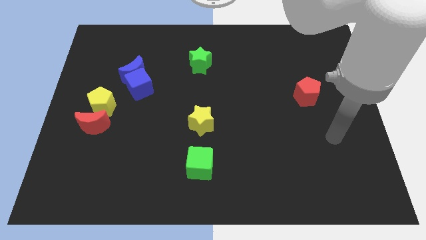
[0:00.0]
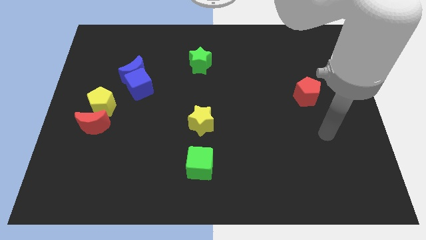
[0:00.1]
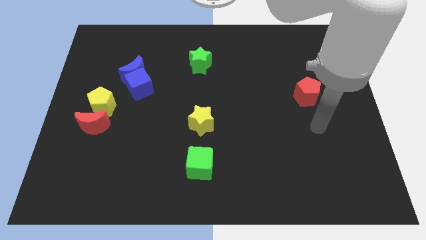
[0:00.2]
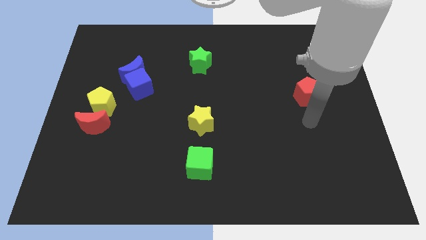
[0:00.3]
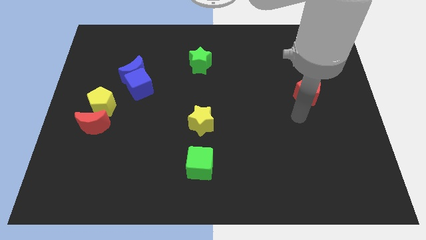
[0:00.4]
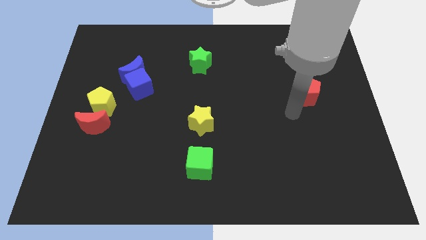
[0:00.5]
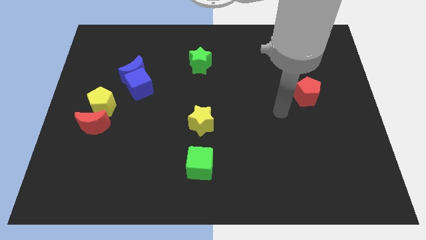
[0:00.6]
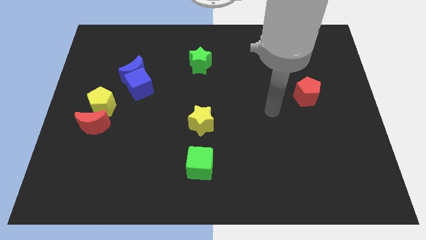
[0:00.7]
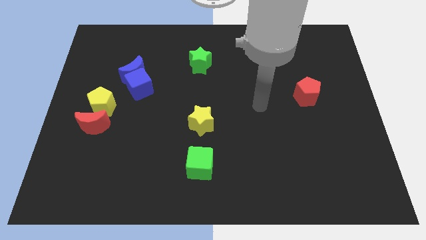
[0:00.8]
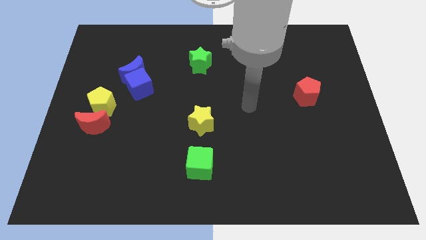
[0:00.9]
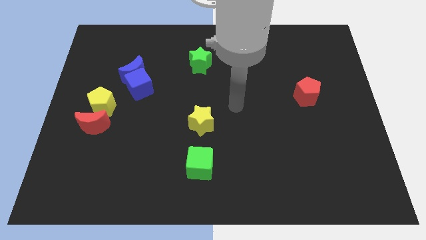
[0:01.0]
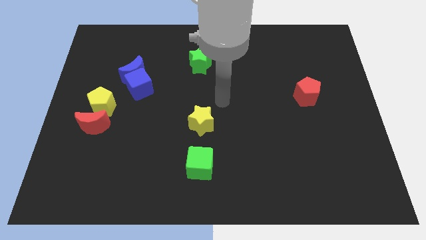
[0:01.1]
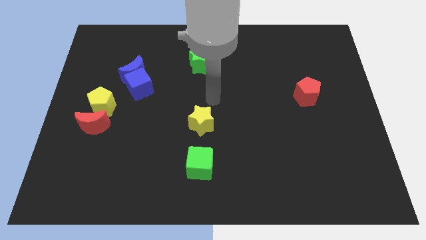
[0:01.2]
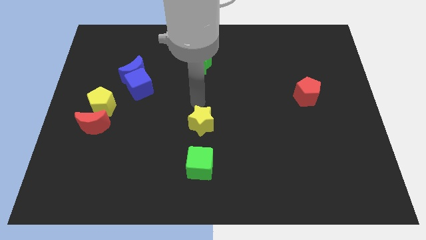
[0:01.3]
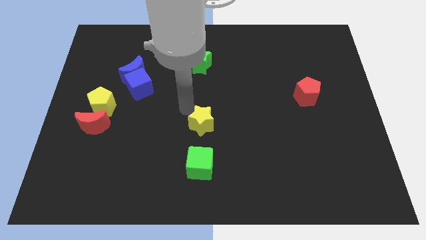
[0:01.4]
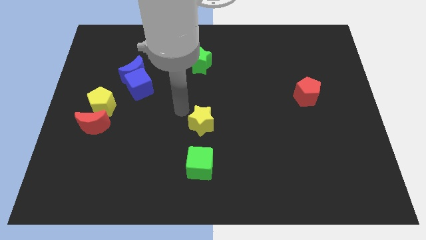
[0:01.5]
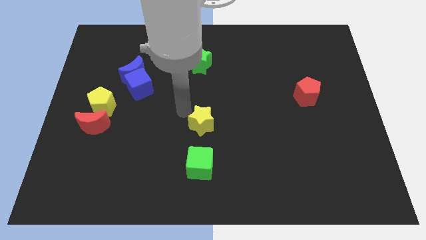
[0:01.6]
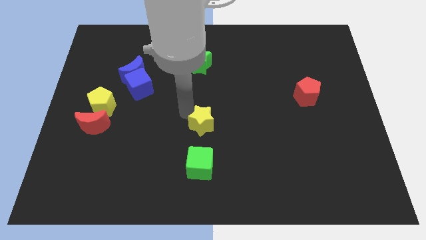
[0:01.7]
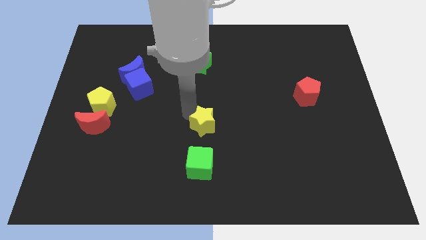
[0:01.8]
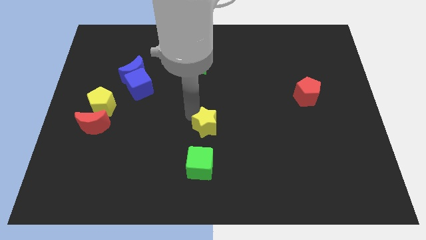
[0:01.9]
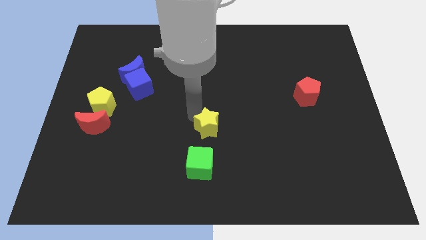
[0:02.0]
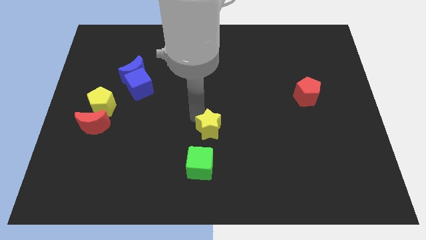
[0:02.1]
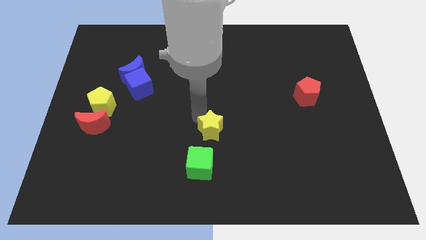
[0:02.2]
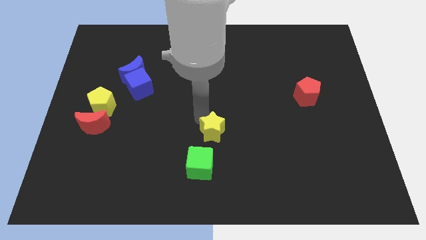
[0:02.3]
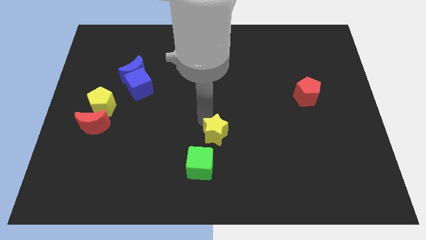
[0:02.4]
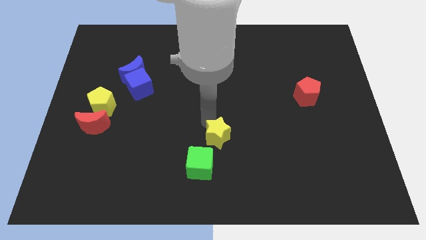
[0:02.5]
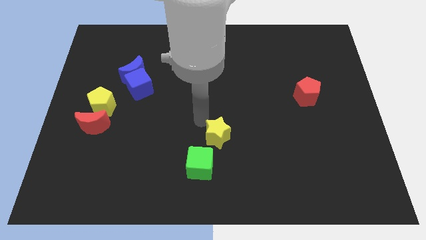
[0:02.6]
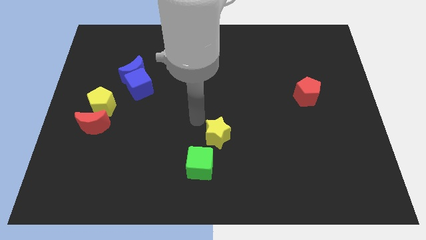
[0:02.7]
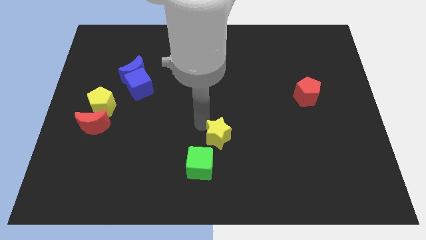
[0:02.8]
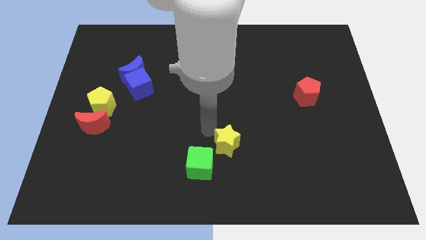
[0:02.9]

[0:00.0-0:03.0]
slide the yellow star down and then to the right a little

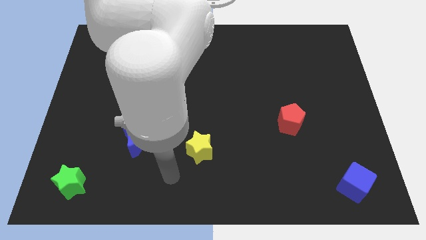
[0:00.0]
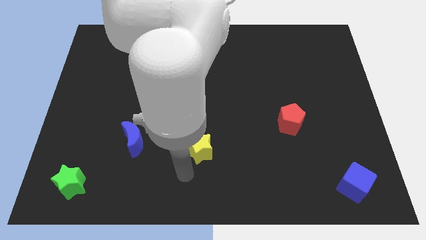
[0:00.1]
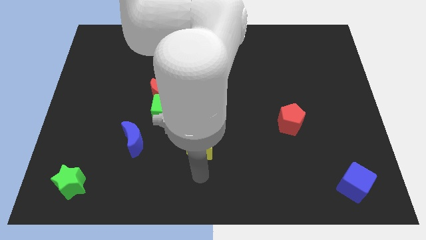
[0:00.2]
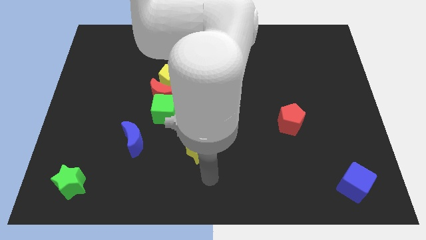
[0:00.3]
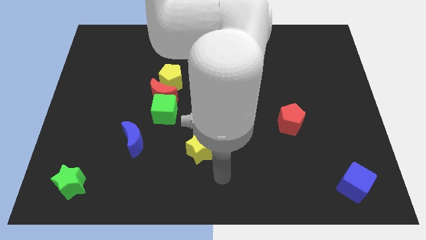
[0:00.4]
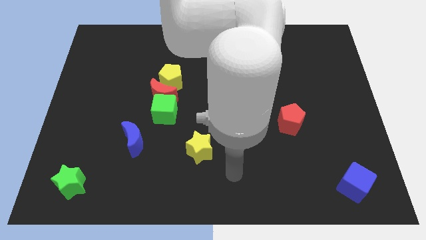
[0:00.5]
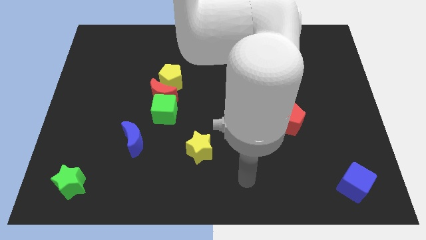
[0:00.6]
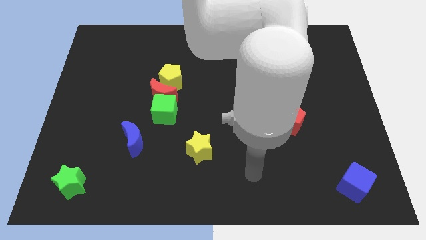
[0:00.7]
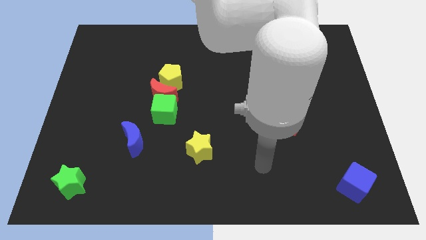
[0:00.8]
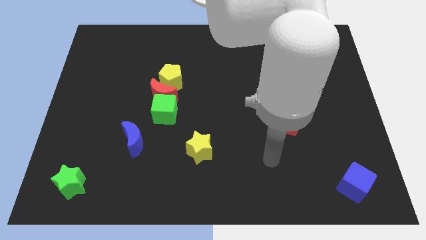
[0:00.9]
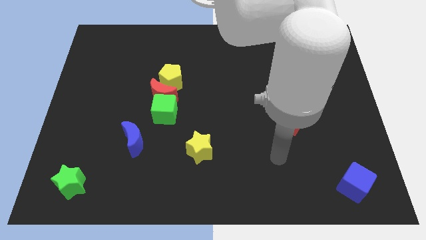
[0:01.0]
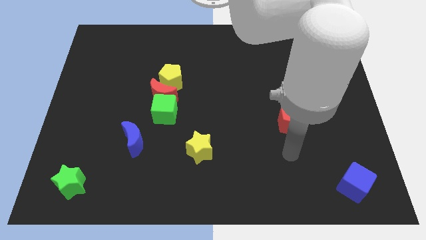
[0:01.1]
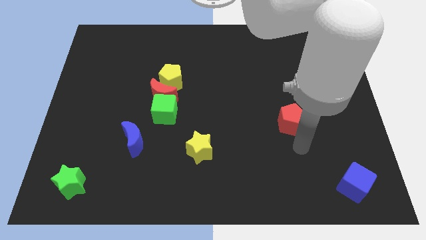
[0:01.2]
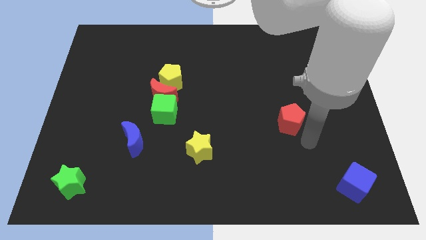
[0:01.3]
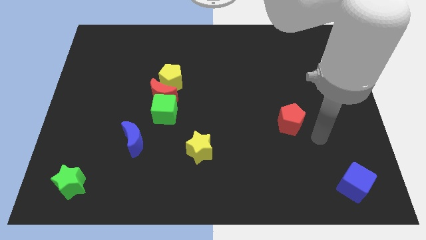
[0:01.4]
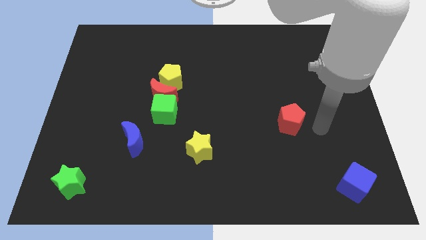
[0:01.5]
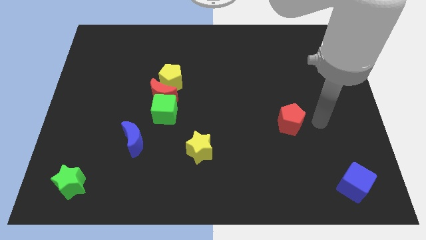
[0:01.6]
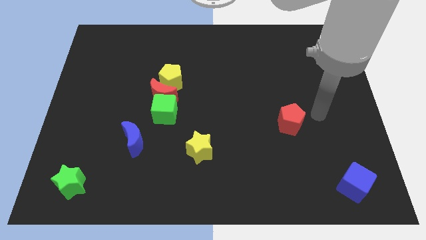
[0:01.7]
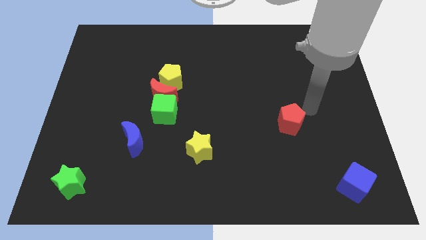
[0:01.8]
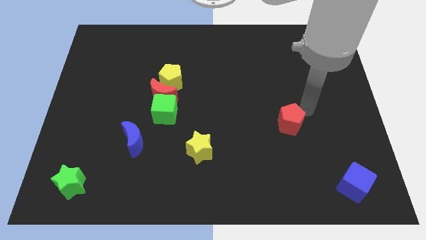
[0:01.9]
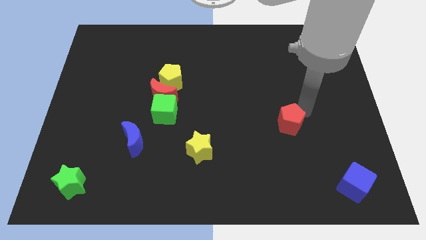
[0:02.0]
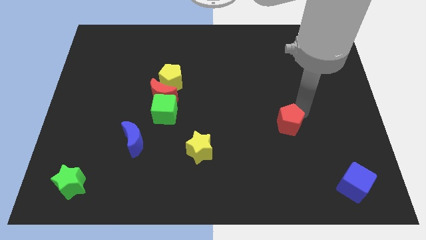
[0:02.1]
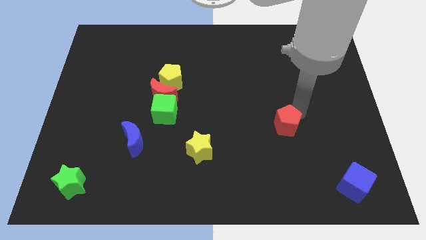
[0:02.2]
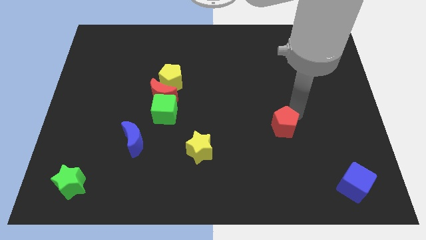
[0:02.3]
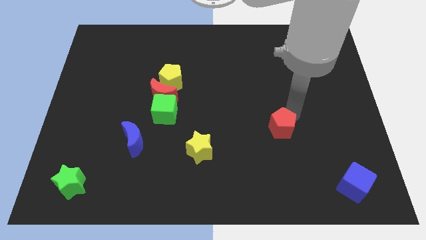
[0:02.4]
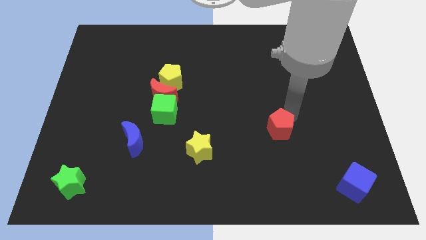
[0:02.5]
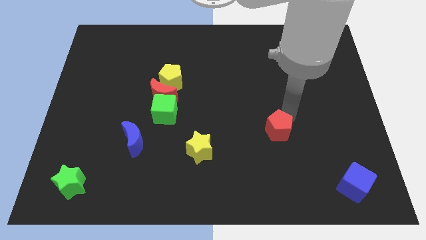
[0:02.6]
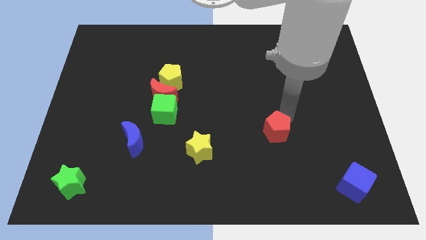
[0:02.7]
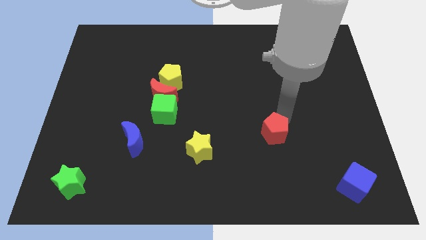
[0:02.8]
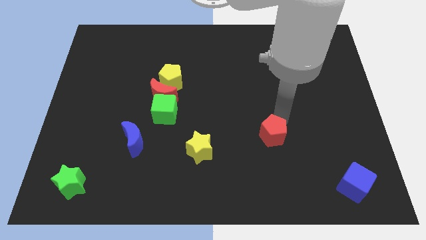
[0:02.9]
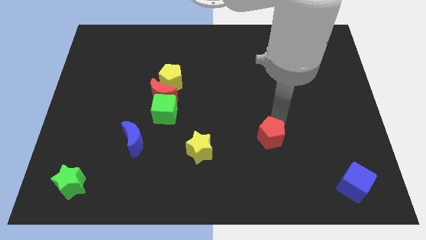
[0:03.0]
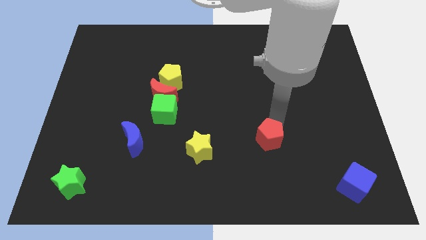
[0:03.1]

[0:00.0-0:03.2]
slightly push the red pentagon diagonally down and to the left

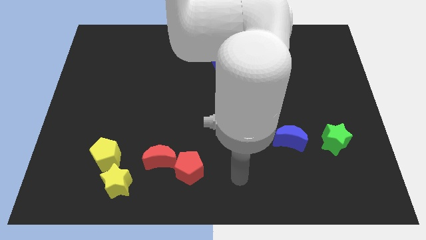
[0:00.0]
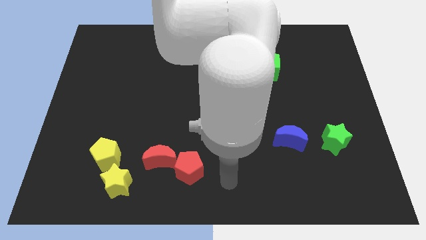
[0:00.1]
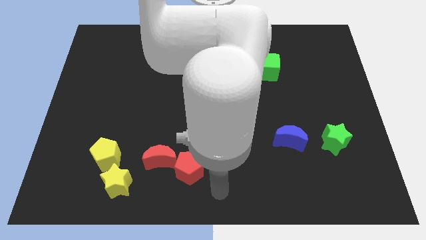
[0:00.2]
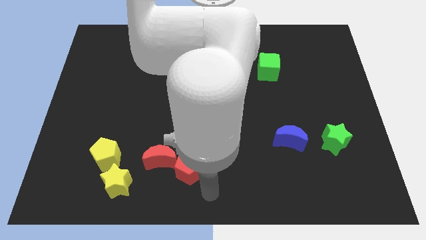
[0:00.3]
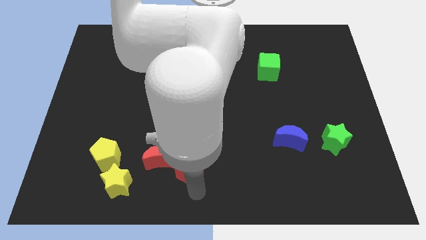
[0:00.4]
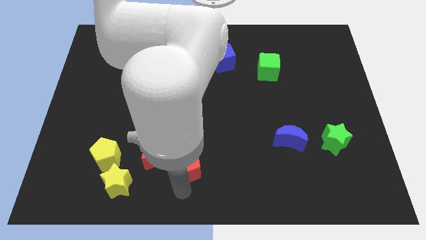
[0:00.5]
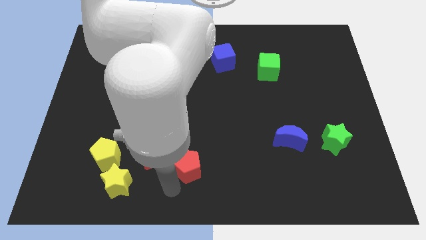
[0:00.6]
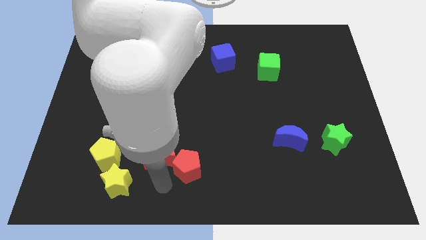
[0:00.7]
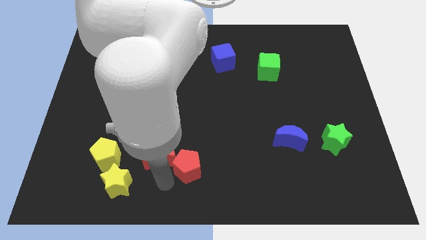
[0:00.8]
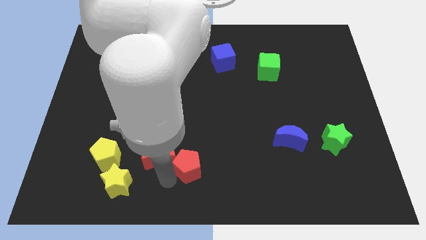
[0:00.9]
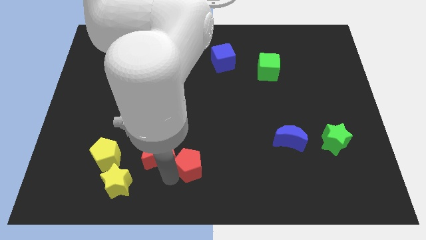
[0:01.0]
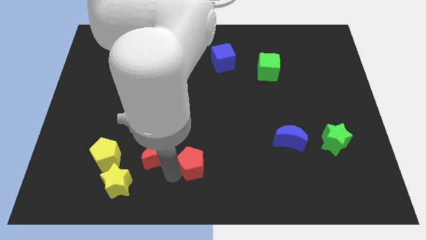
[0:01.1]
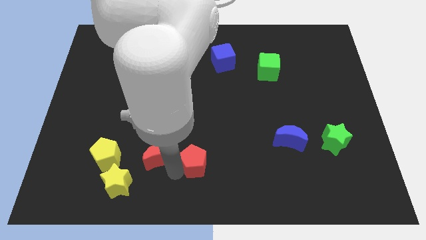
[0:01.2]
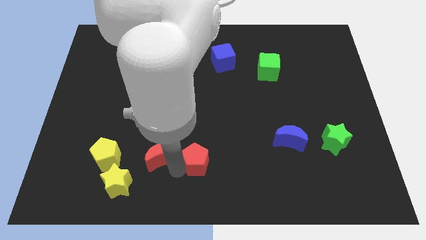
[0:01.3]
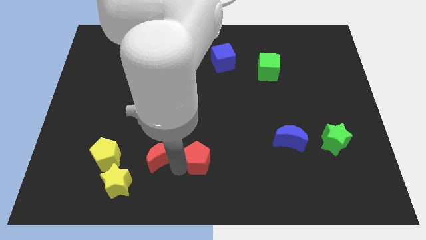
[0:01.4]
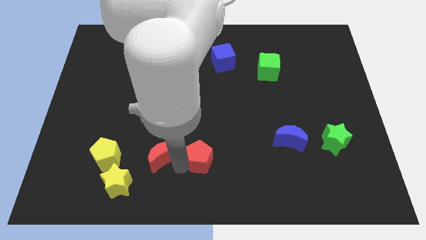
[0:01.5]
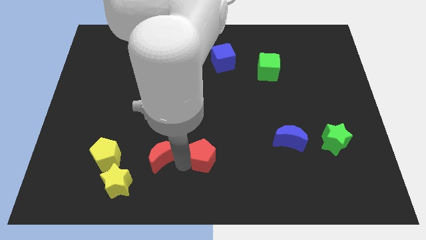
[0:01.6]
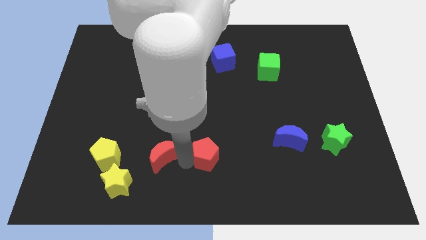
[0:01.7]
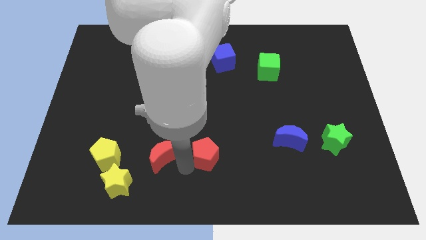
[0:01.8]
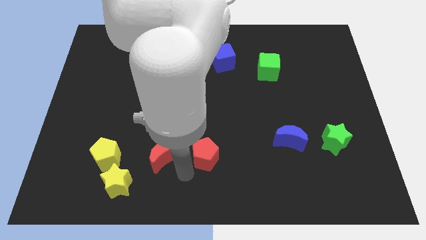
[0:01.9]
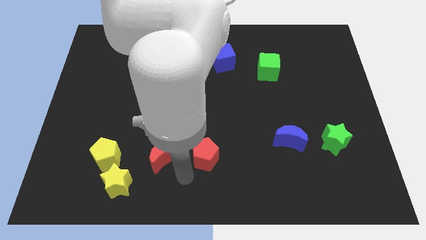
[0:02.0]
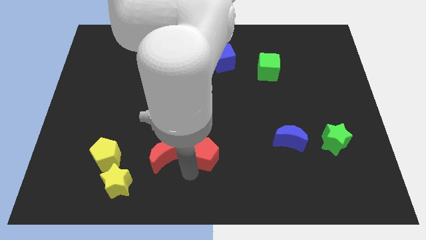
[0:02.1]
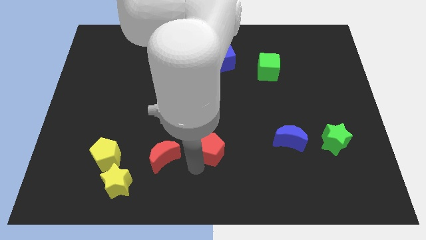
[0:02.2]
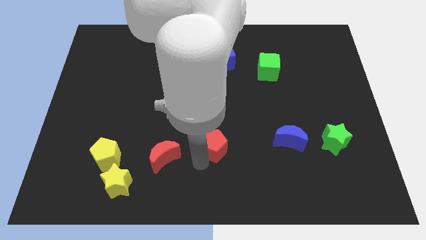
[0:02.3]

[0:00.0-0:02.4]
push the red pentagon a little diagonally up and right
